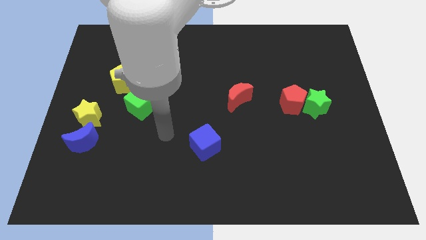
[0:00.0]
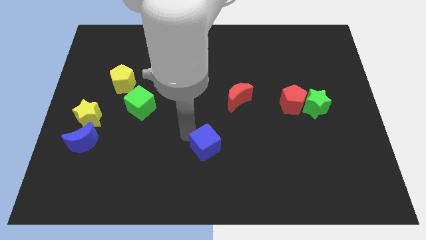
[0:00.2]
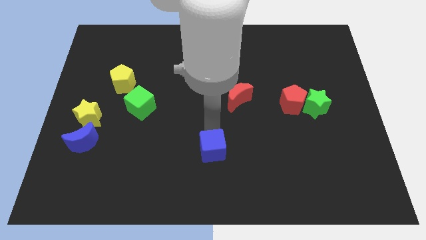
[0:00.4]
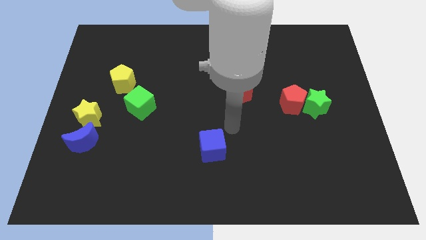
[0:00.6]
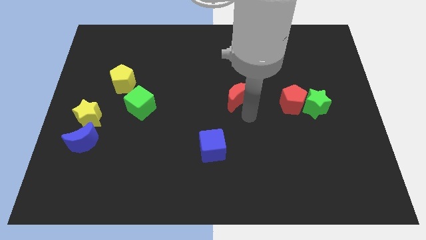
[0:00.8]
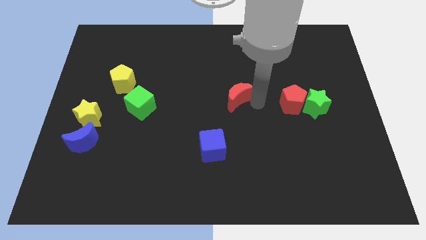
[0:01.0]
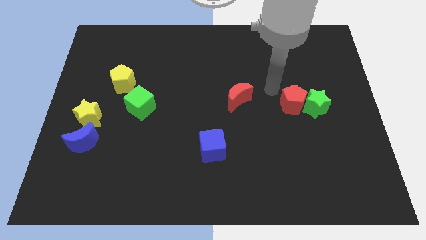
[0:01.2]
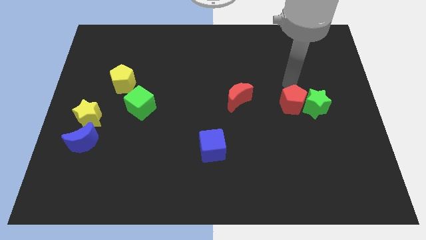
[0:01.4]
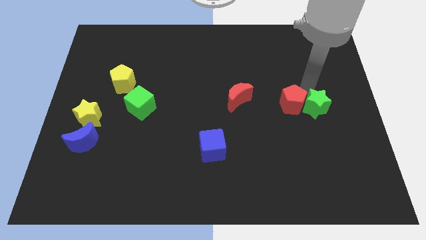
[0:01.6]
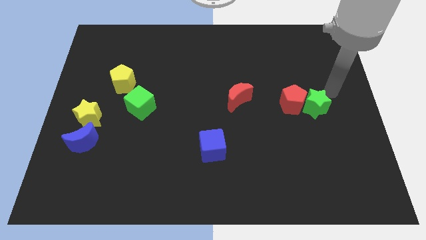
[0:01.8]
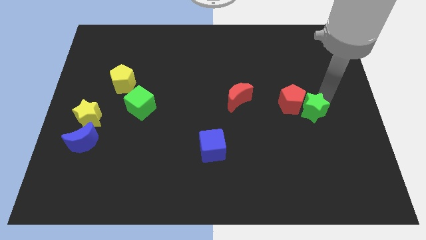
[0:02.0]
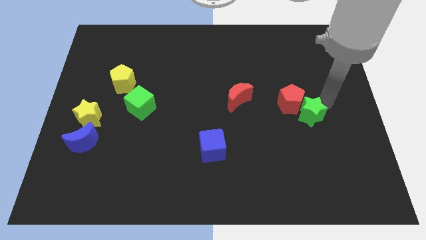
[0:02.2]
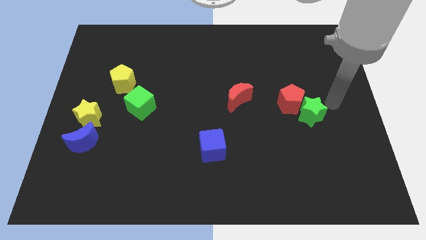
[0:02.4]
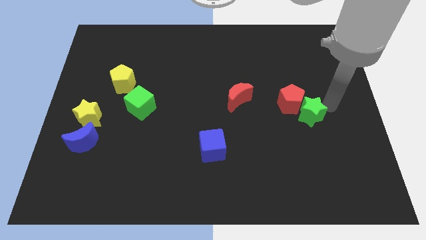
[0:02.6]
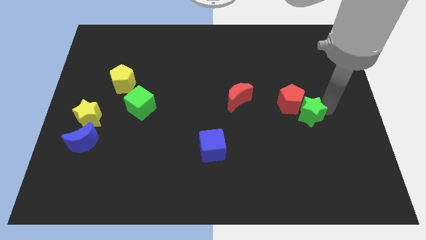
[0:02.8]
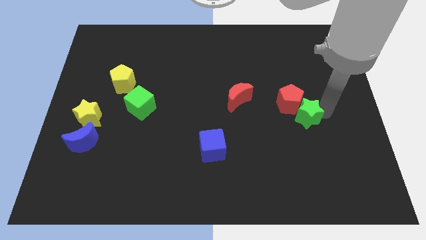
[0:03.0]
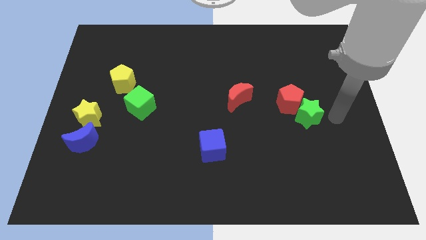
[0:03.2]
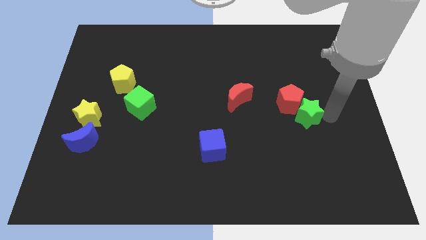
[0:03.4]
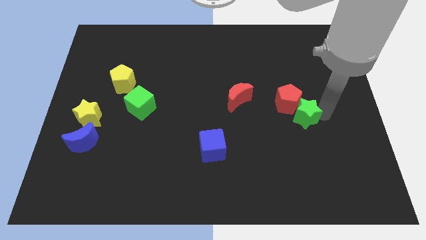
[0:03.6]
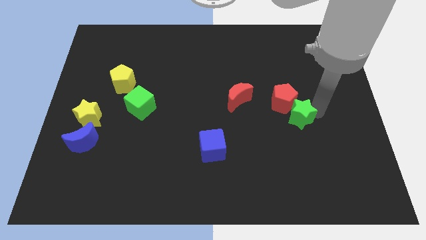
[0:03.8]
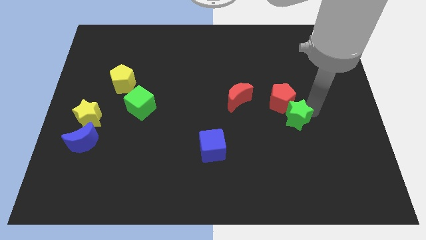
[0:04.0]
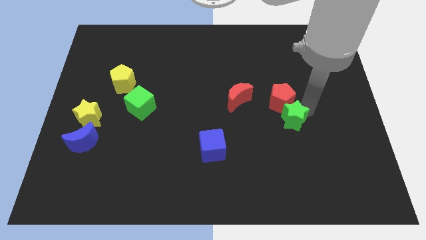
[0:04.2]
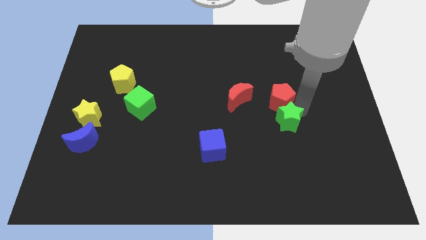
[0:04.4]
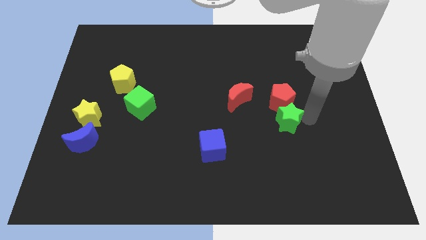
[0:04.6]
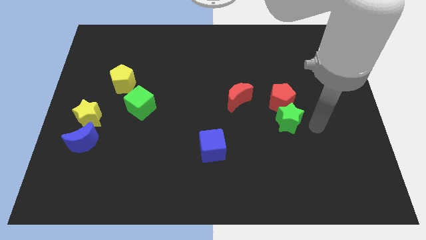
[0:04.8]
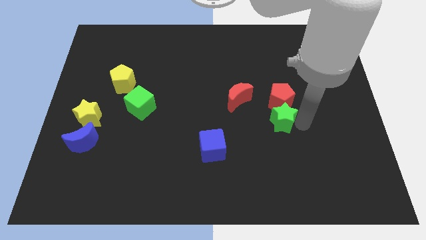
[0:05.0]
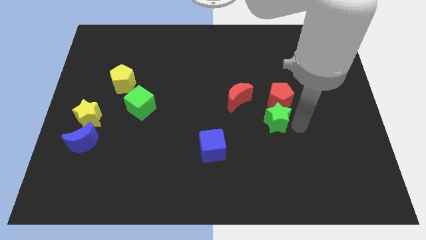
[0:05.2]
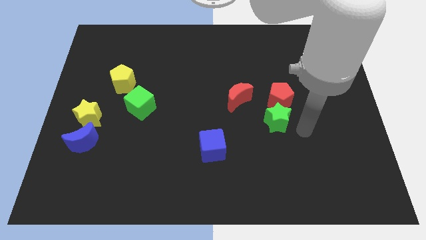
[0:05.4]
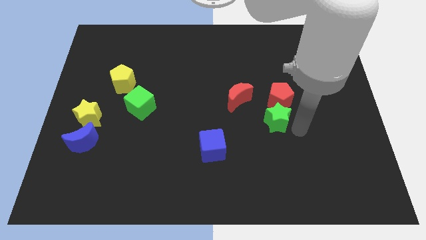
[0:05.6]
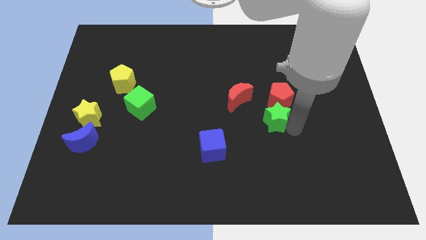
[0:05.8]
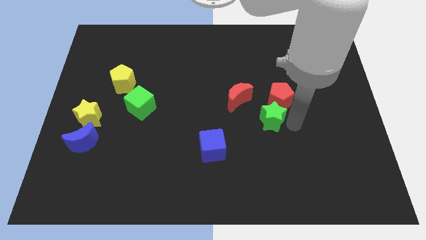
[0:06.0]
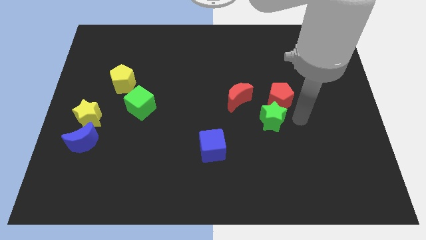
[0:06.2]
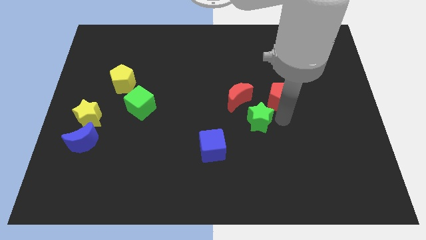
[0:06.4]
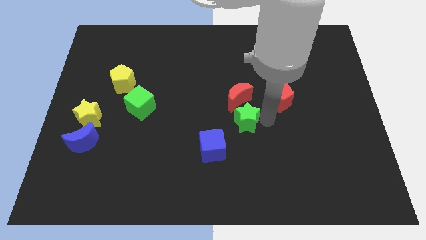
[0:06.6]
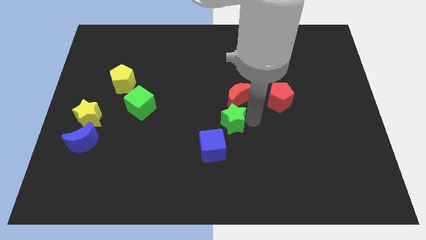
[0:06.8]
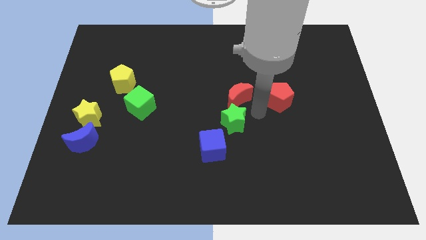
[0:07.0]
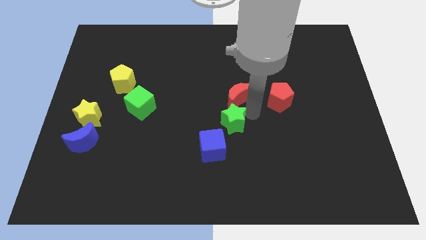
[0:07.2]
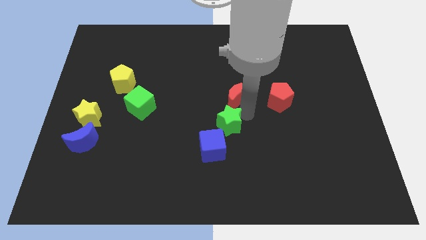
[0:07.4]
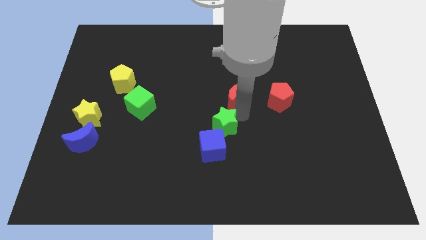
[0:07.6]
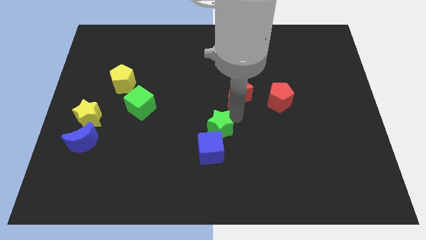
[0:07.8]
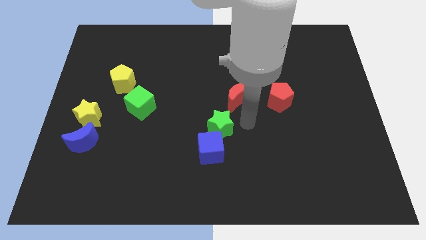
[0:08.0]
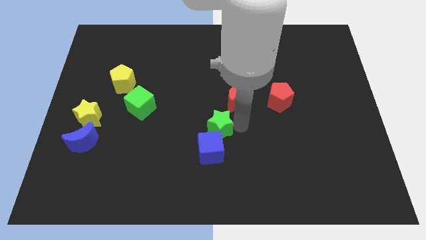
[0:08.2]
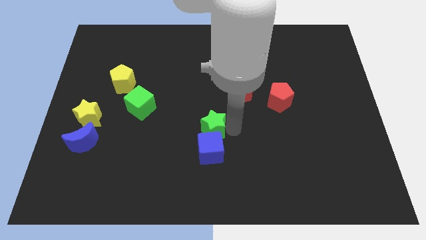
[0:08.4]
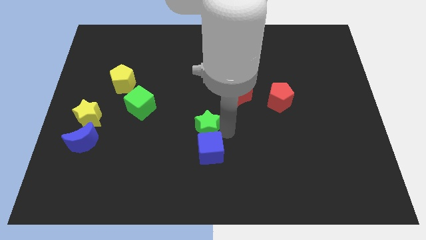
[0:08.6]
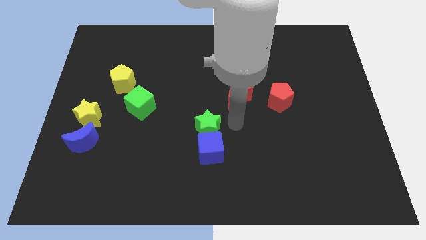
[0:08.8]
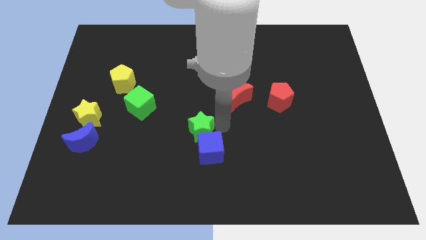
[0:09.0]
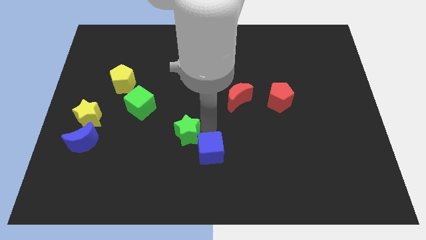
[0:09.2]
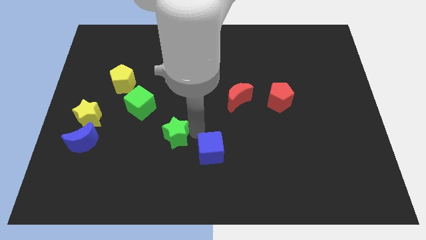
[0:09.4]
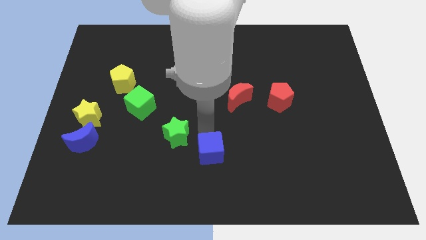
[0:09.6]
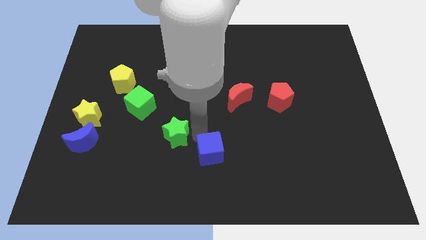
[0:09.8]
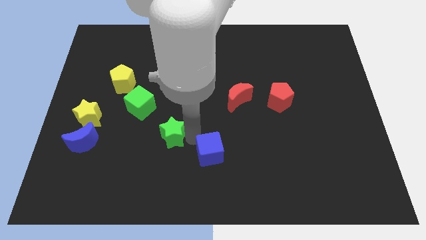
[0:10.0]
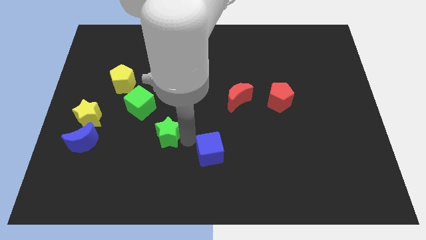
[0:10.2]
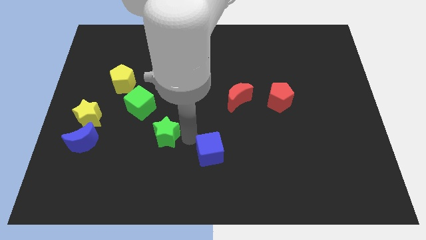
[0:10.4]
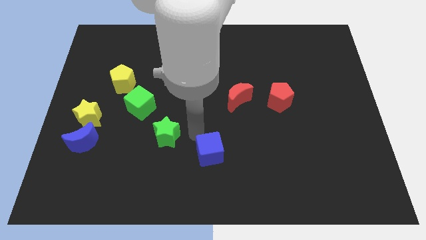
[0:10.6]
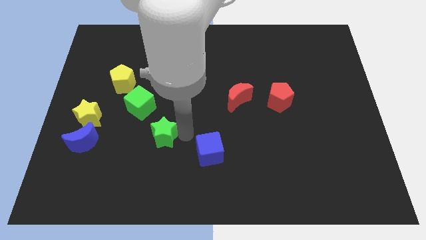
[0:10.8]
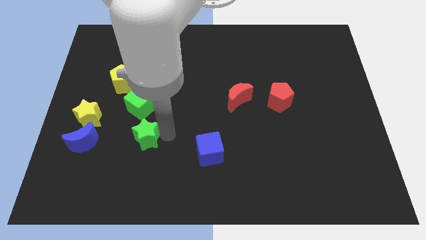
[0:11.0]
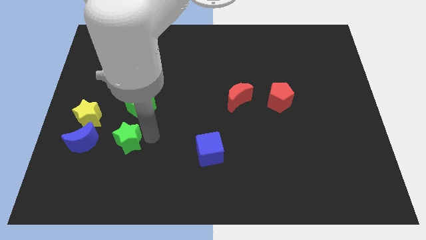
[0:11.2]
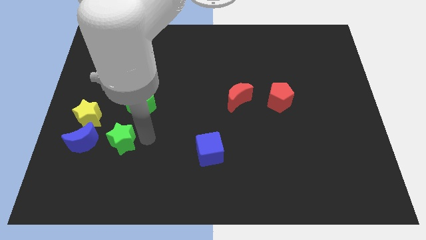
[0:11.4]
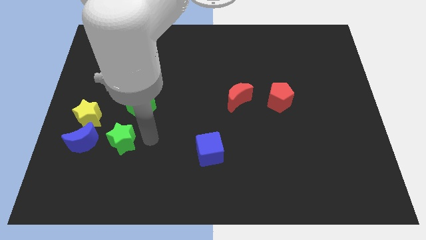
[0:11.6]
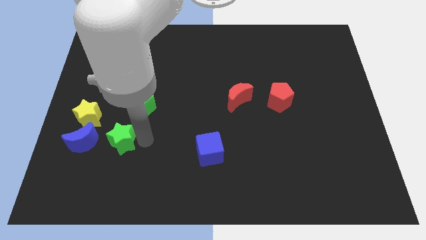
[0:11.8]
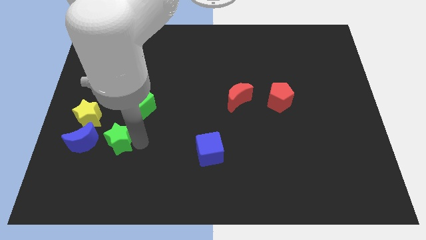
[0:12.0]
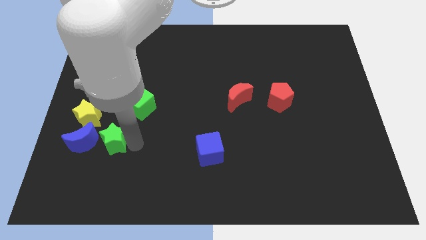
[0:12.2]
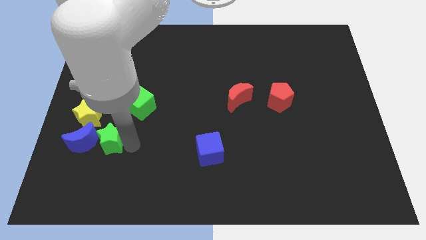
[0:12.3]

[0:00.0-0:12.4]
slide the green star towards the blue moon

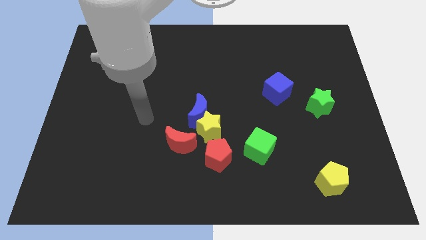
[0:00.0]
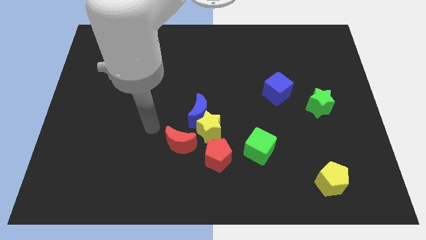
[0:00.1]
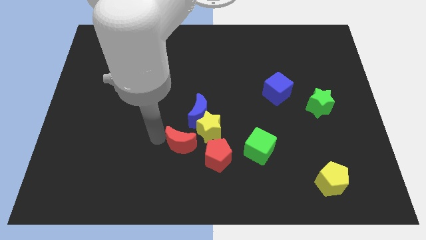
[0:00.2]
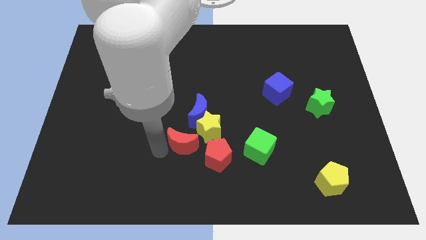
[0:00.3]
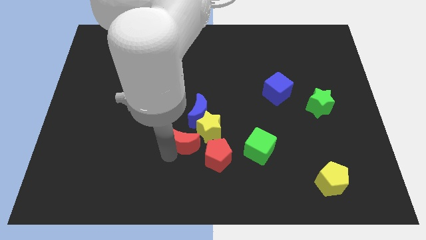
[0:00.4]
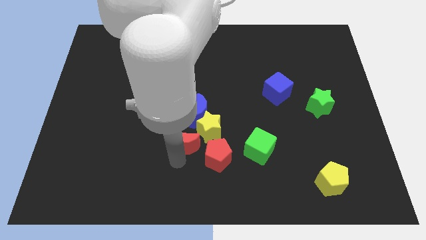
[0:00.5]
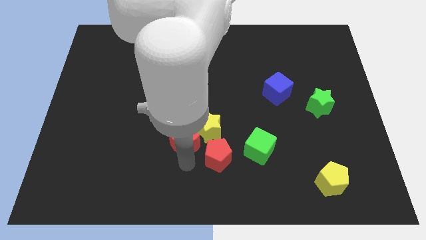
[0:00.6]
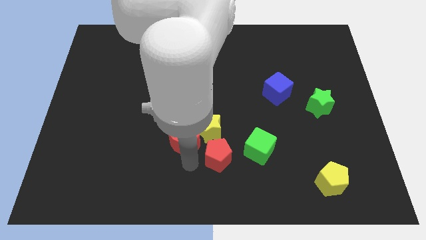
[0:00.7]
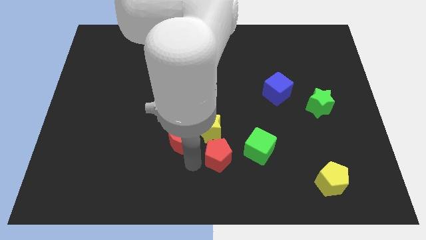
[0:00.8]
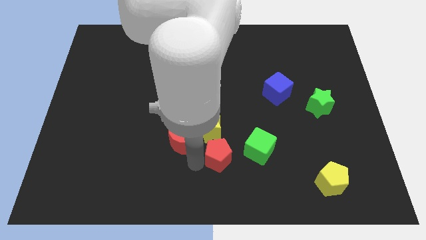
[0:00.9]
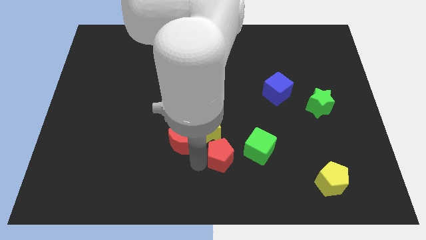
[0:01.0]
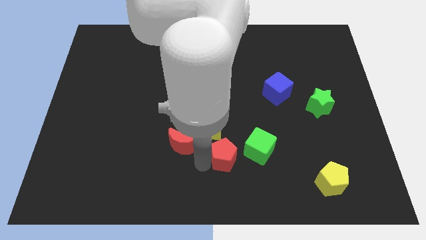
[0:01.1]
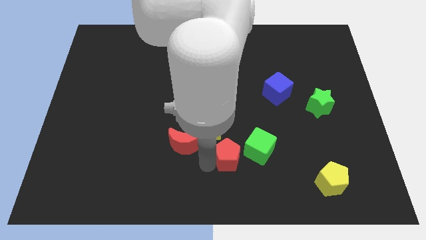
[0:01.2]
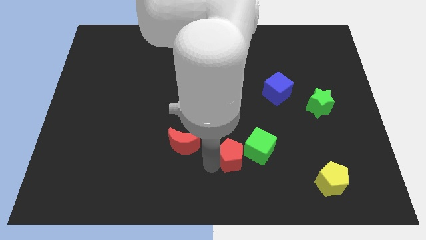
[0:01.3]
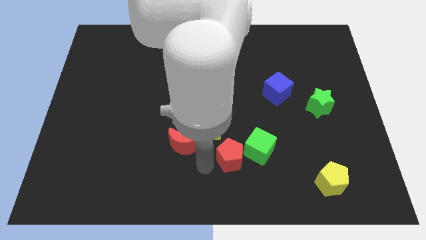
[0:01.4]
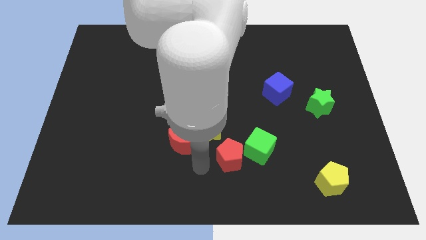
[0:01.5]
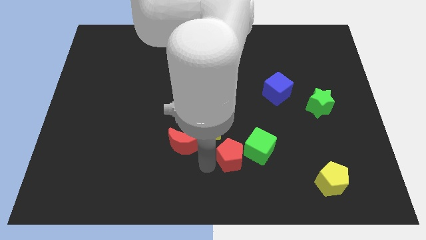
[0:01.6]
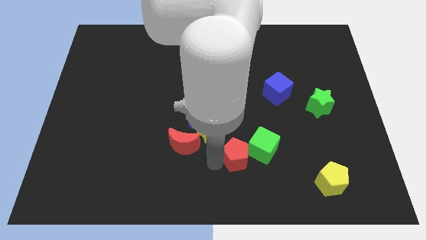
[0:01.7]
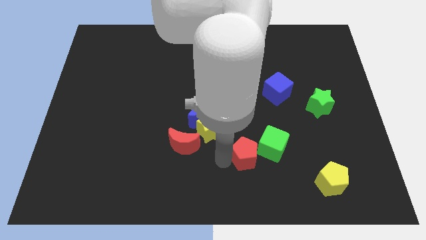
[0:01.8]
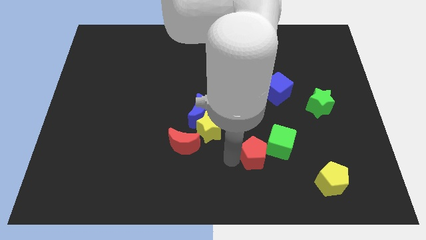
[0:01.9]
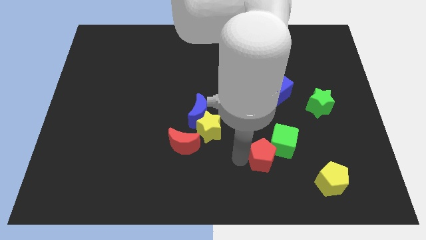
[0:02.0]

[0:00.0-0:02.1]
move the red pentagon towards the green cube

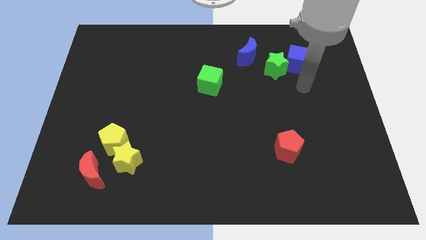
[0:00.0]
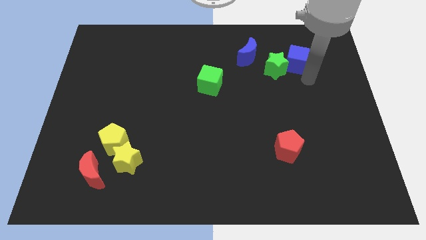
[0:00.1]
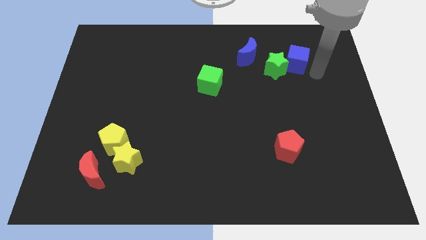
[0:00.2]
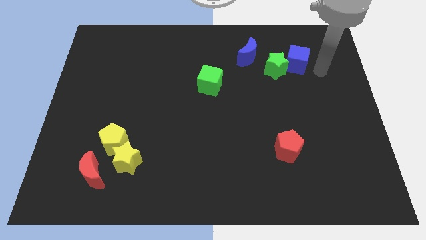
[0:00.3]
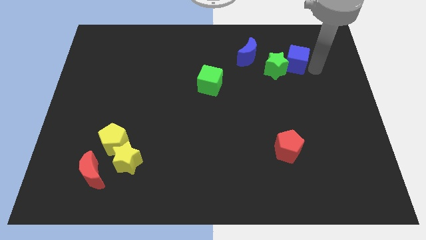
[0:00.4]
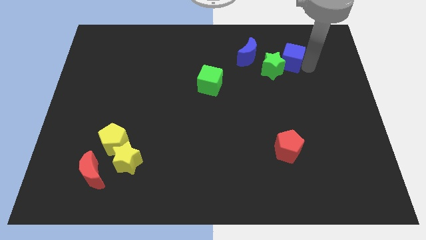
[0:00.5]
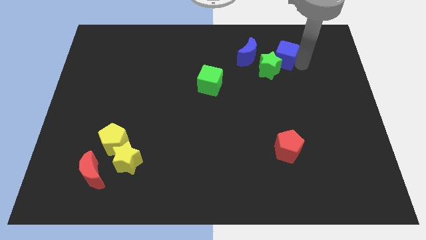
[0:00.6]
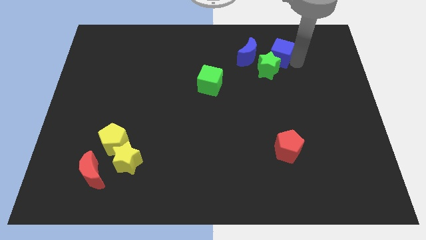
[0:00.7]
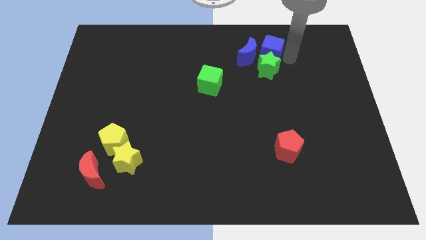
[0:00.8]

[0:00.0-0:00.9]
push the blue cube close to the blue moon
